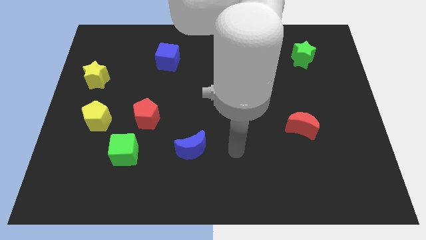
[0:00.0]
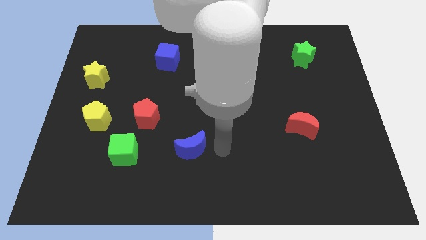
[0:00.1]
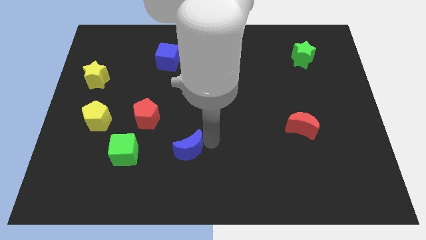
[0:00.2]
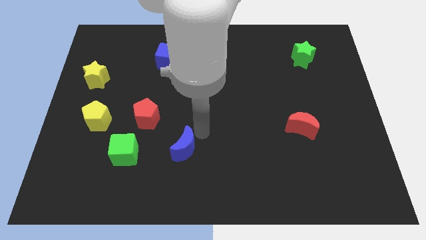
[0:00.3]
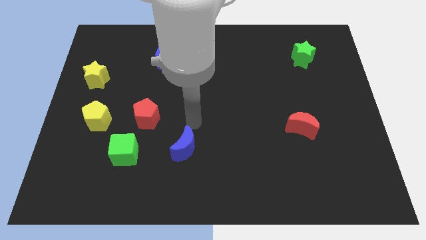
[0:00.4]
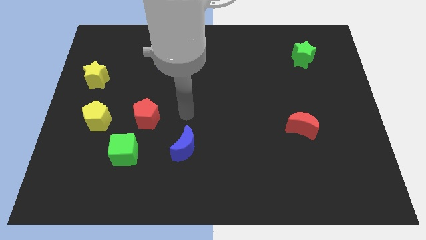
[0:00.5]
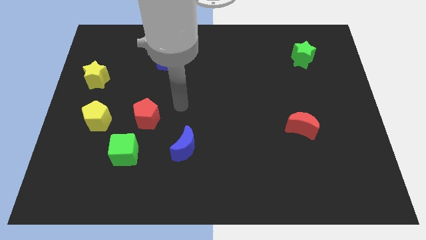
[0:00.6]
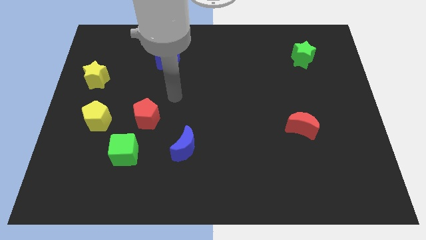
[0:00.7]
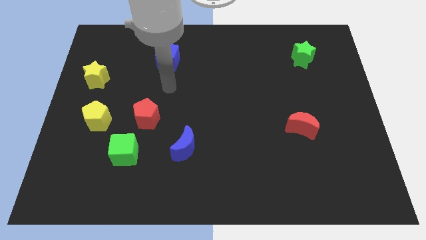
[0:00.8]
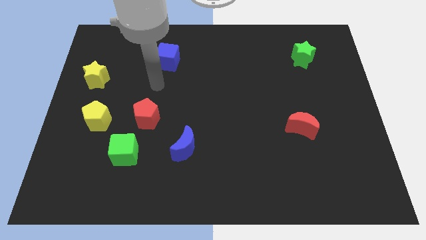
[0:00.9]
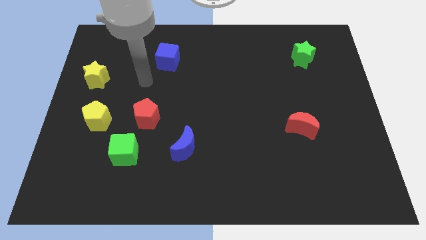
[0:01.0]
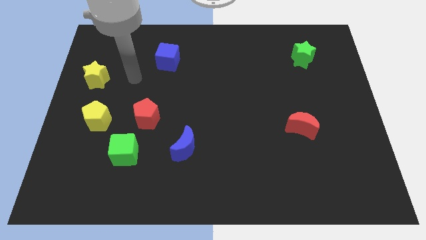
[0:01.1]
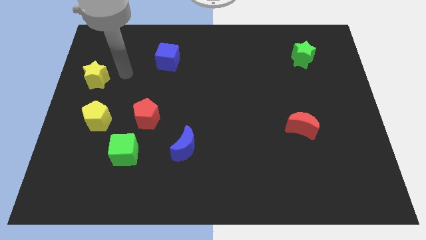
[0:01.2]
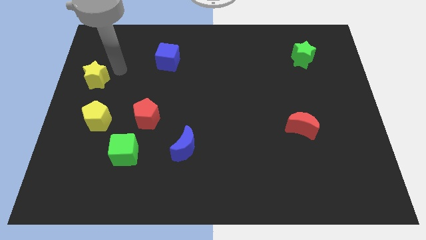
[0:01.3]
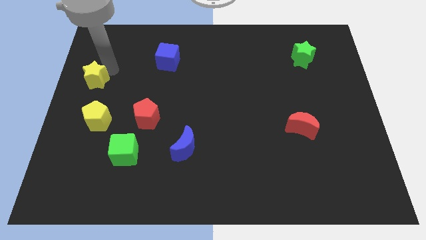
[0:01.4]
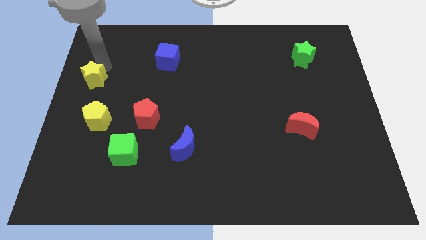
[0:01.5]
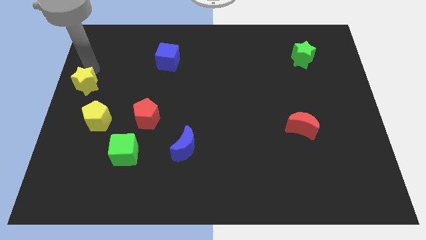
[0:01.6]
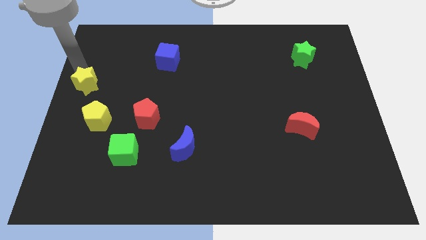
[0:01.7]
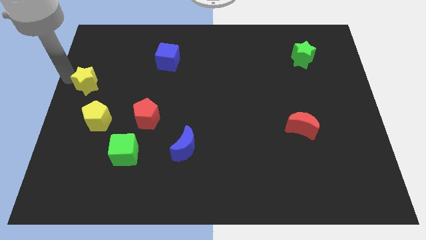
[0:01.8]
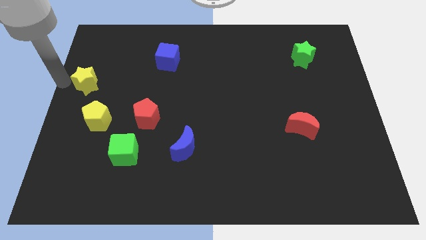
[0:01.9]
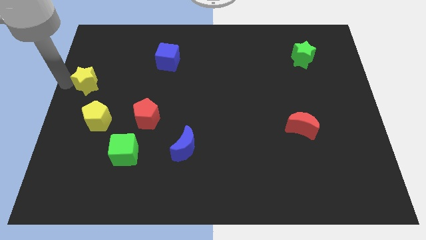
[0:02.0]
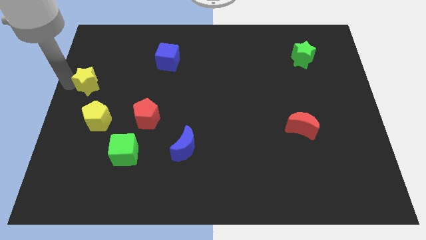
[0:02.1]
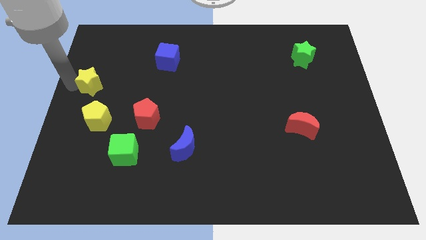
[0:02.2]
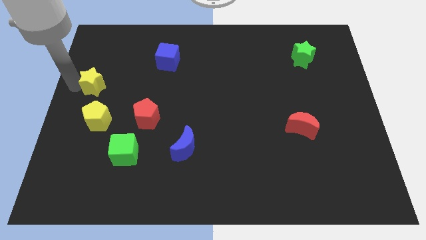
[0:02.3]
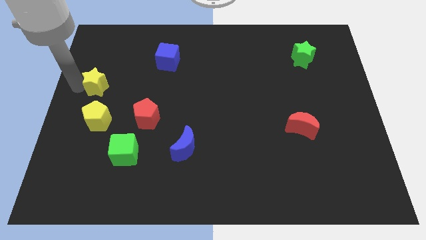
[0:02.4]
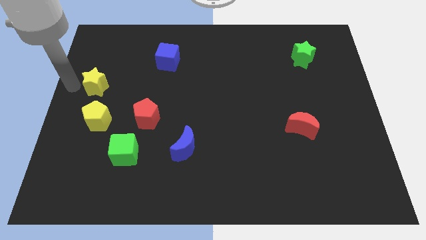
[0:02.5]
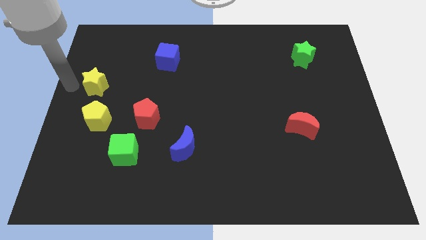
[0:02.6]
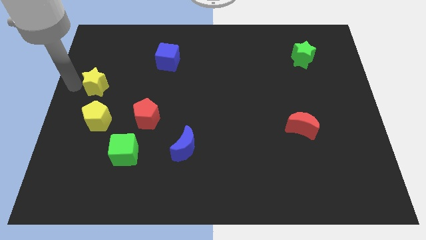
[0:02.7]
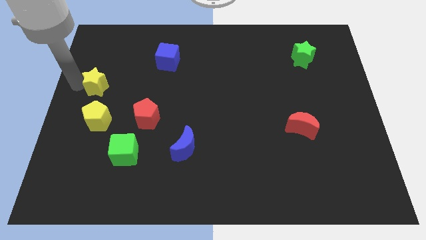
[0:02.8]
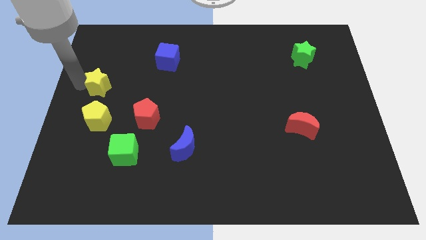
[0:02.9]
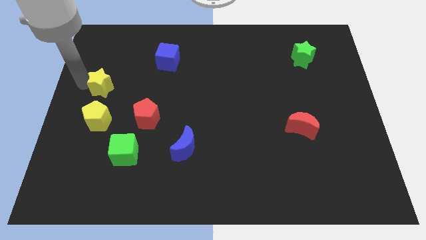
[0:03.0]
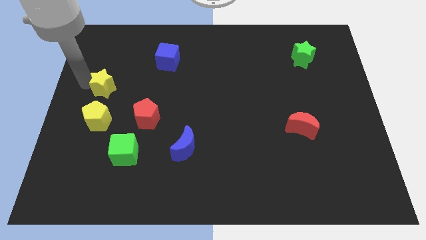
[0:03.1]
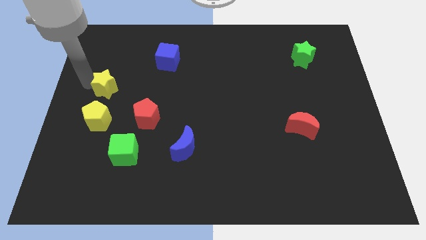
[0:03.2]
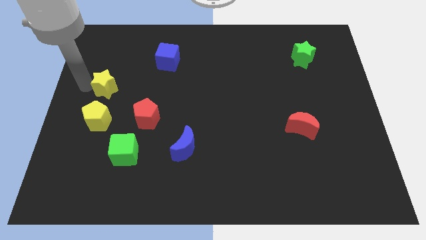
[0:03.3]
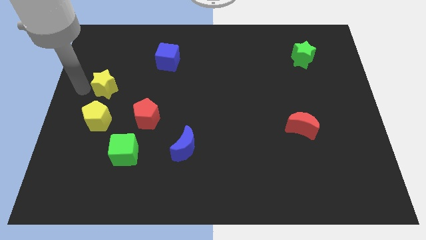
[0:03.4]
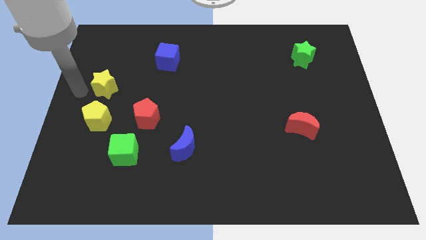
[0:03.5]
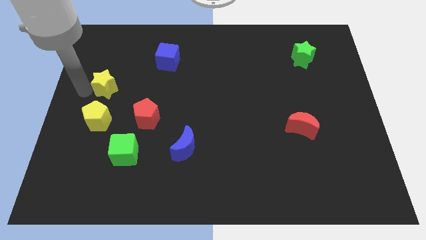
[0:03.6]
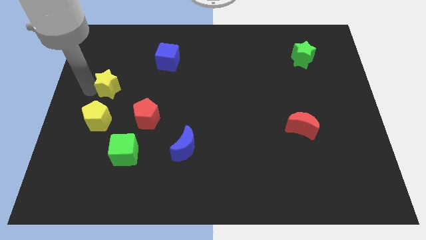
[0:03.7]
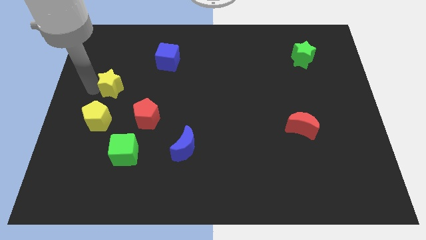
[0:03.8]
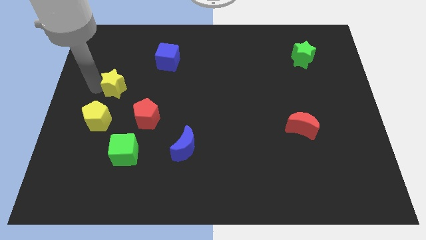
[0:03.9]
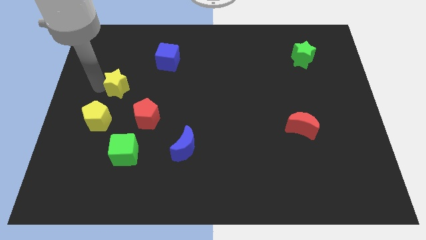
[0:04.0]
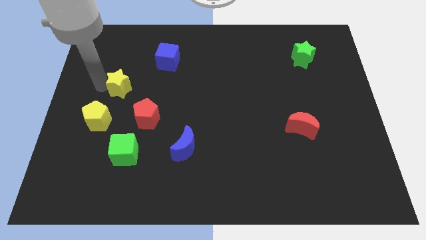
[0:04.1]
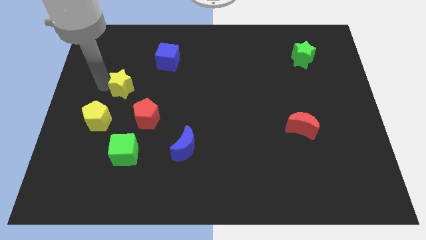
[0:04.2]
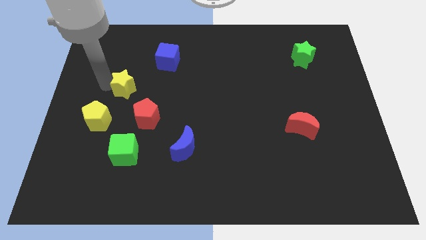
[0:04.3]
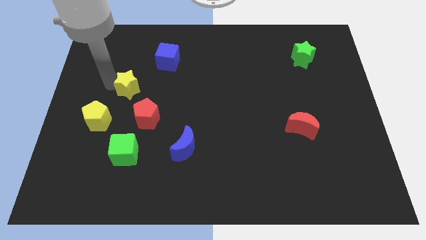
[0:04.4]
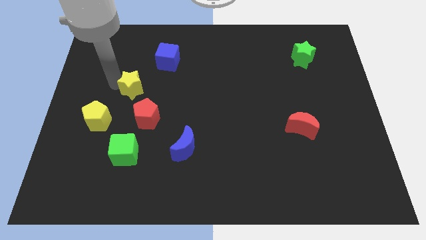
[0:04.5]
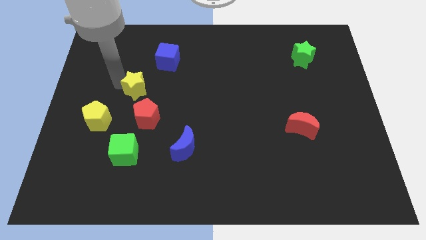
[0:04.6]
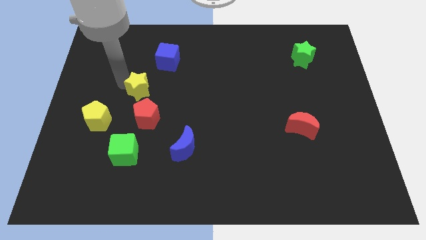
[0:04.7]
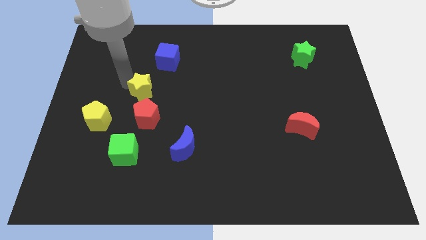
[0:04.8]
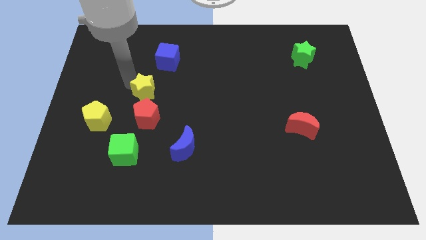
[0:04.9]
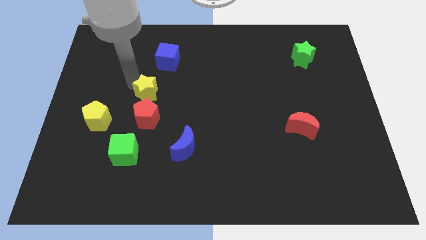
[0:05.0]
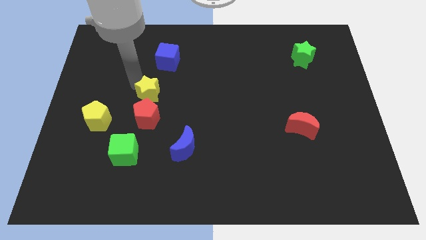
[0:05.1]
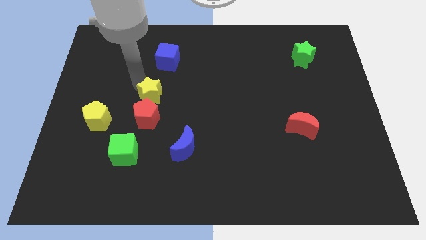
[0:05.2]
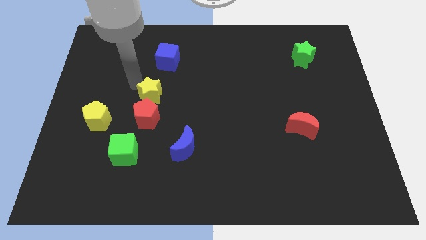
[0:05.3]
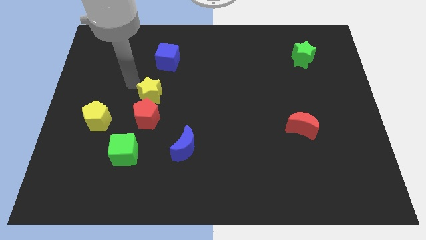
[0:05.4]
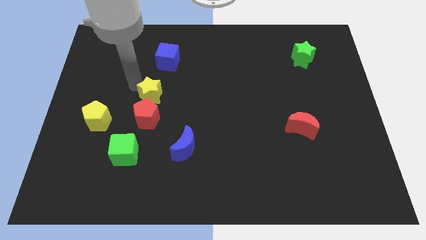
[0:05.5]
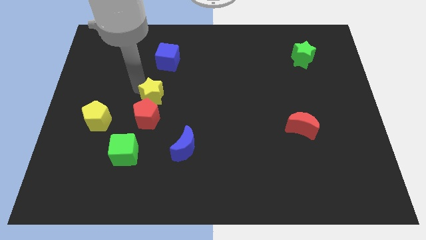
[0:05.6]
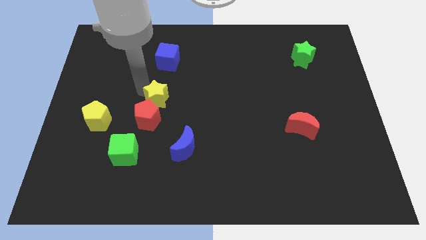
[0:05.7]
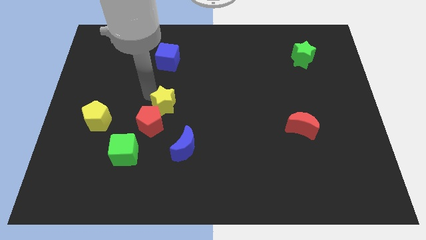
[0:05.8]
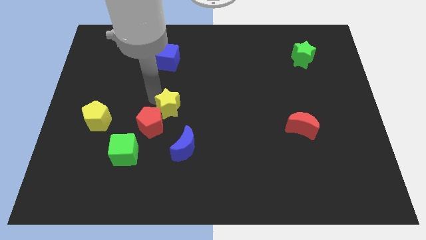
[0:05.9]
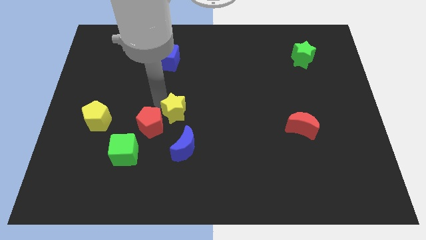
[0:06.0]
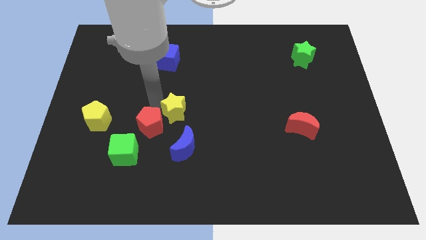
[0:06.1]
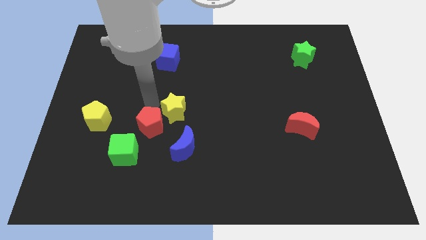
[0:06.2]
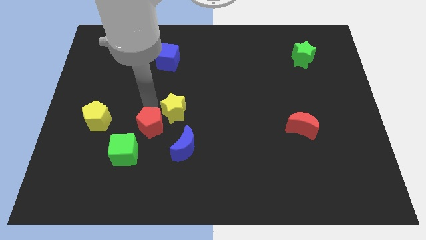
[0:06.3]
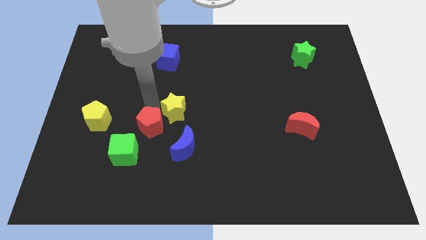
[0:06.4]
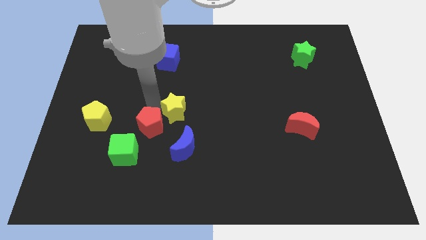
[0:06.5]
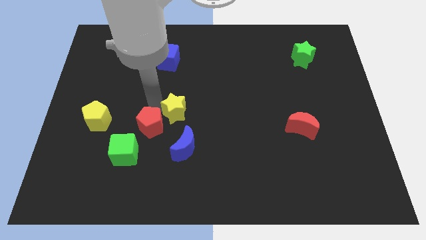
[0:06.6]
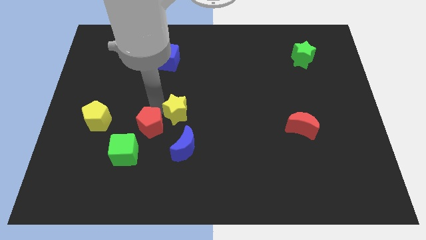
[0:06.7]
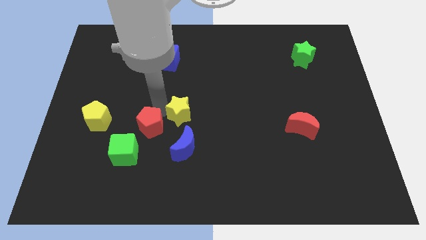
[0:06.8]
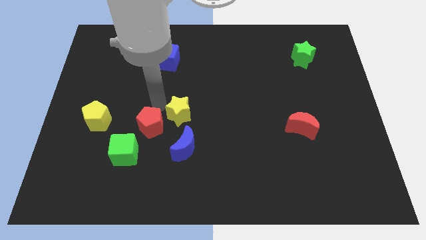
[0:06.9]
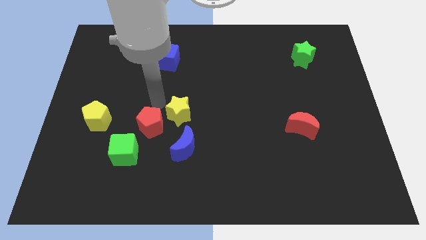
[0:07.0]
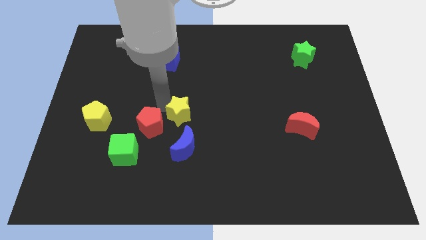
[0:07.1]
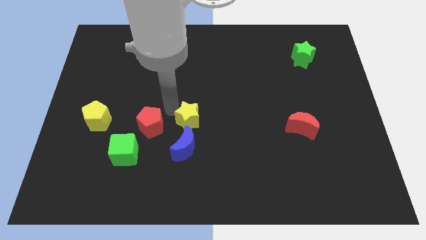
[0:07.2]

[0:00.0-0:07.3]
put the yellow star to the top right side of the blue moon
